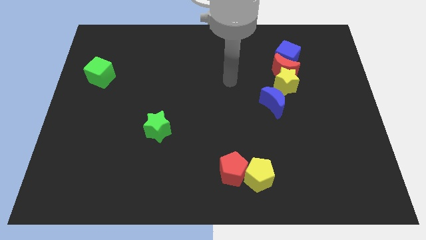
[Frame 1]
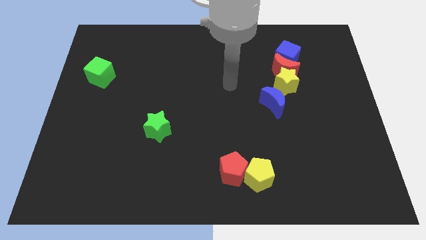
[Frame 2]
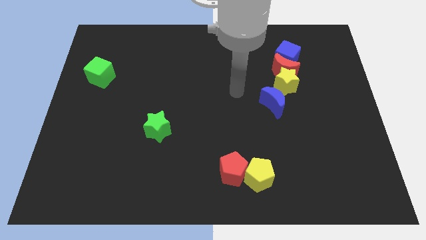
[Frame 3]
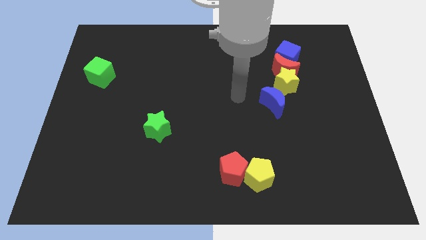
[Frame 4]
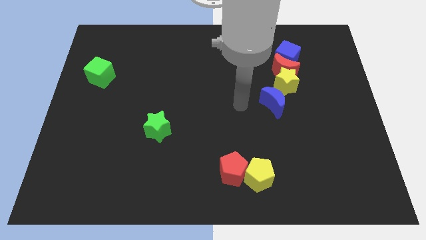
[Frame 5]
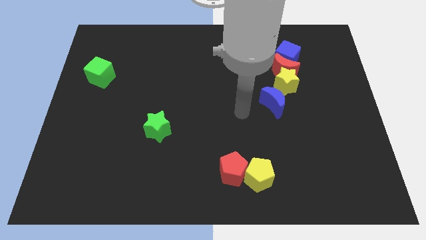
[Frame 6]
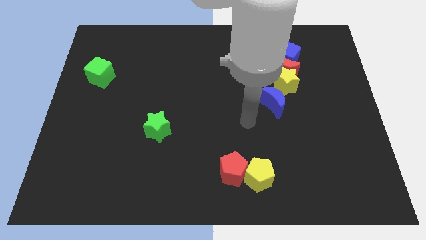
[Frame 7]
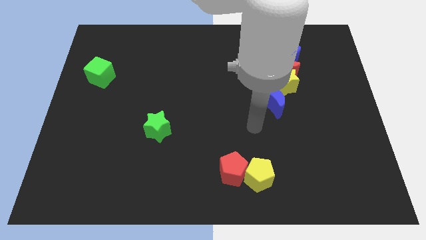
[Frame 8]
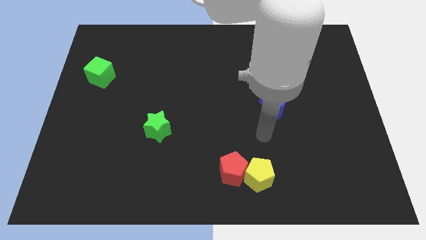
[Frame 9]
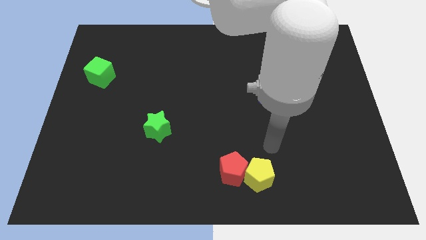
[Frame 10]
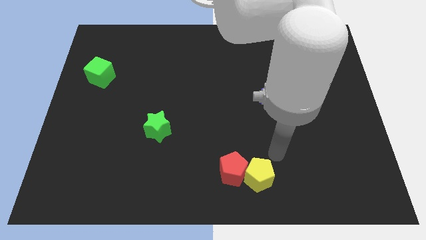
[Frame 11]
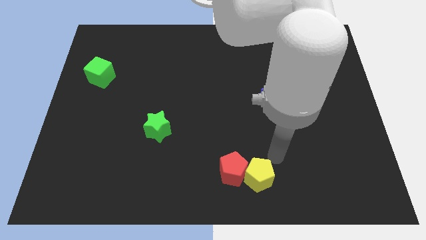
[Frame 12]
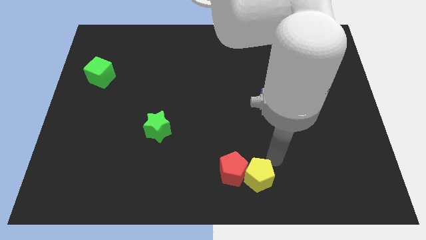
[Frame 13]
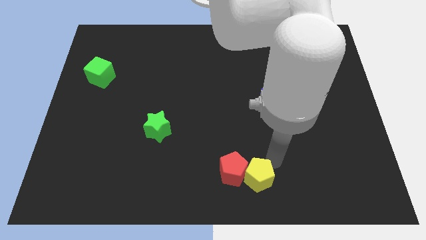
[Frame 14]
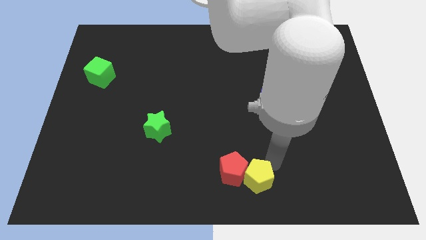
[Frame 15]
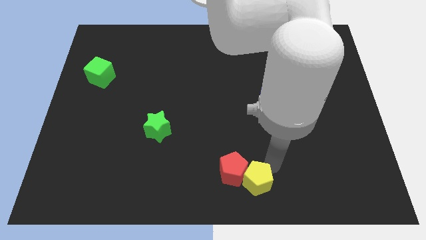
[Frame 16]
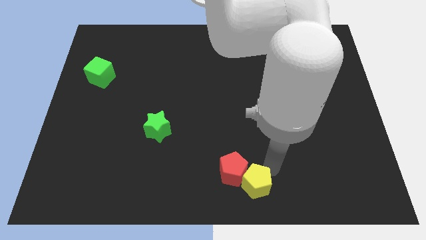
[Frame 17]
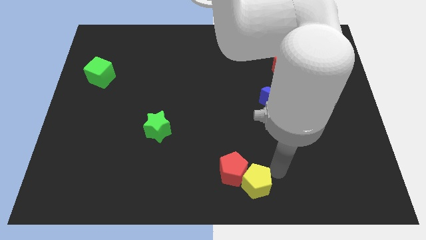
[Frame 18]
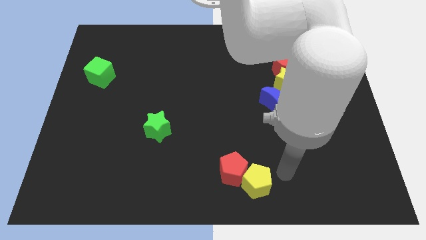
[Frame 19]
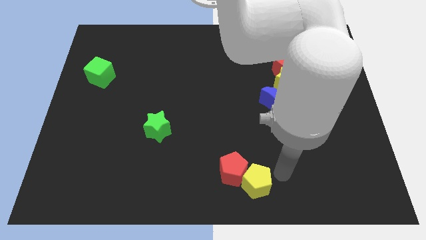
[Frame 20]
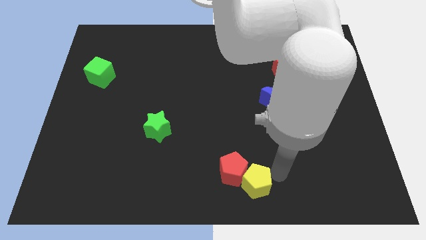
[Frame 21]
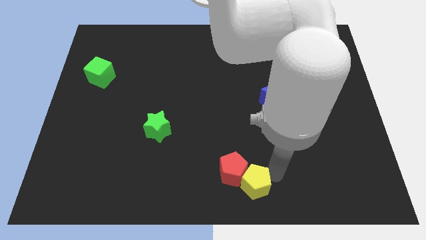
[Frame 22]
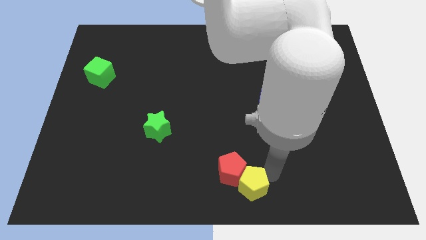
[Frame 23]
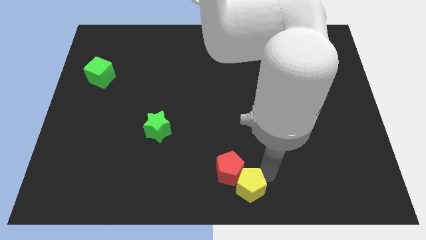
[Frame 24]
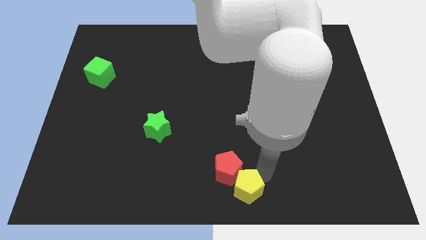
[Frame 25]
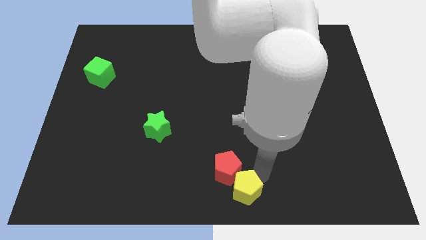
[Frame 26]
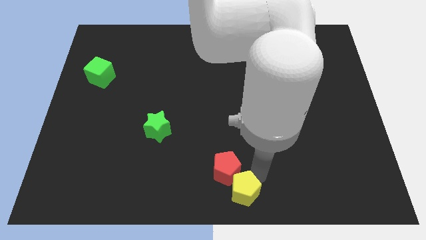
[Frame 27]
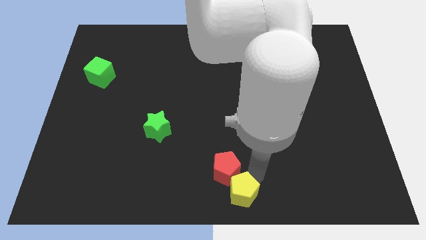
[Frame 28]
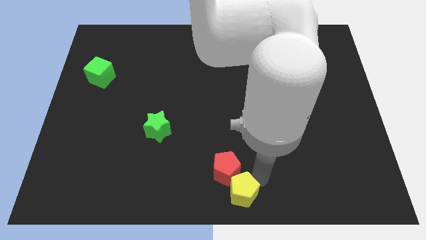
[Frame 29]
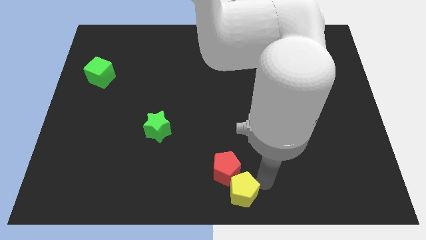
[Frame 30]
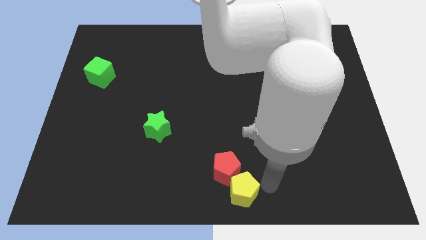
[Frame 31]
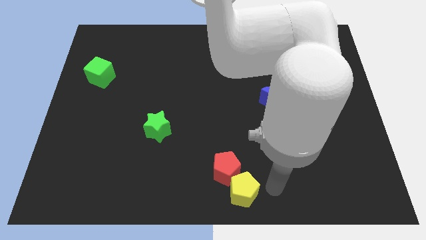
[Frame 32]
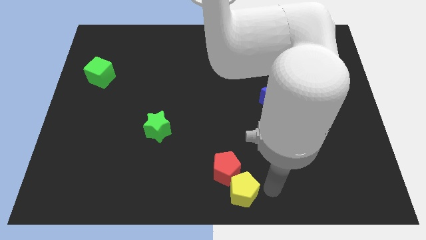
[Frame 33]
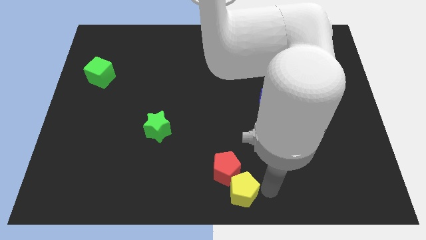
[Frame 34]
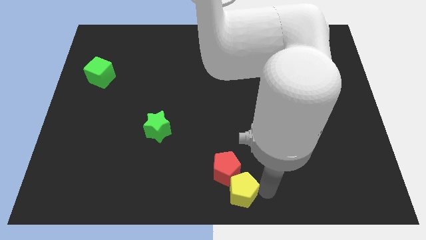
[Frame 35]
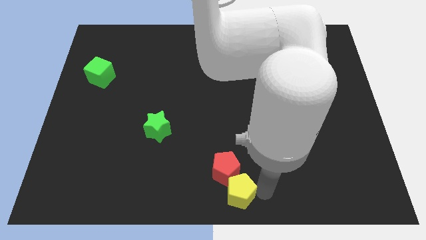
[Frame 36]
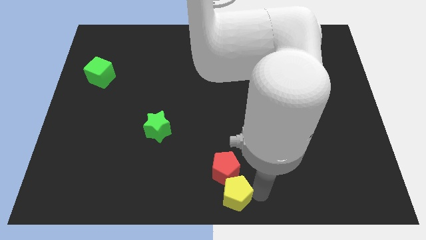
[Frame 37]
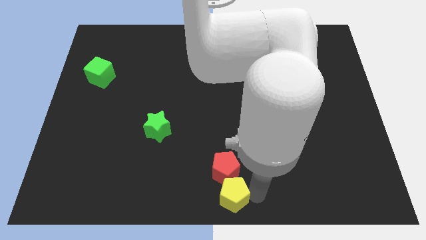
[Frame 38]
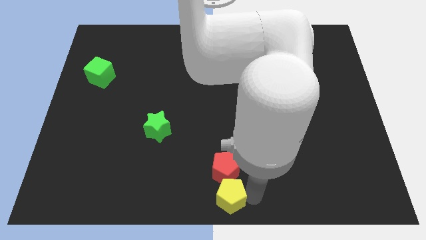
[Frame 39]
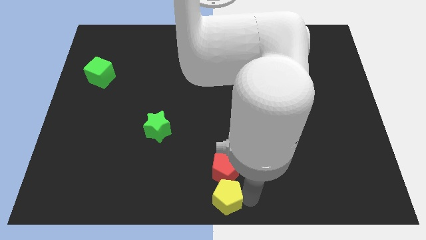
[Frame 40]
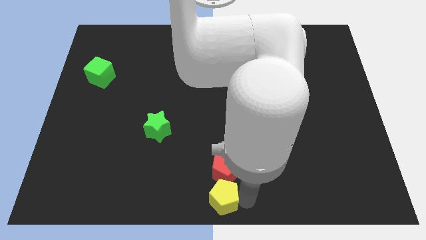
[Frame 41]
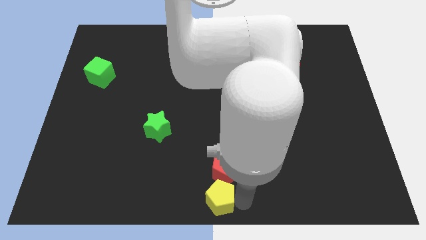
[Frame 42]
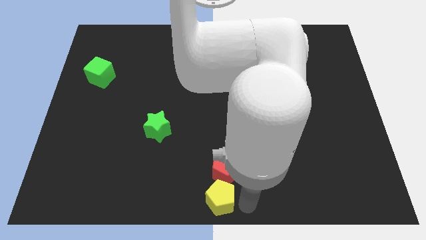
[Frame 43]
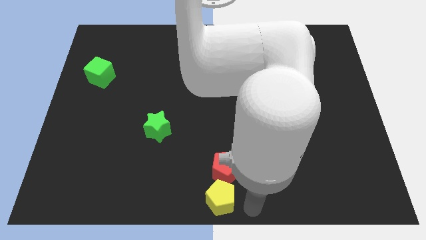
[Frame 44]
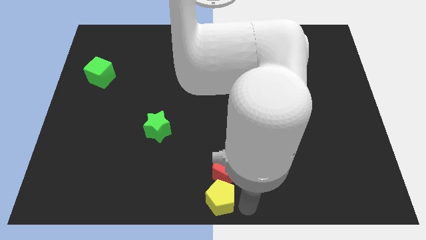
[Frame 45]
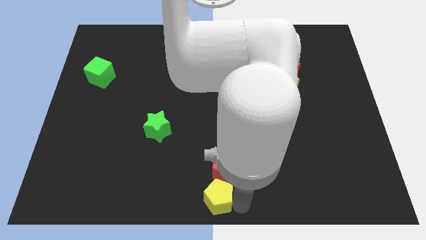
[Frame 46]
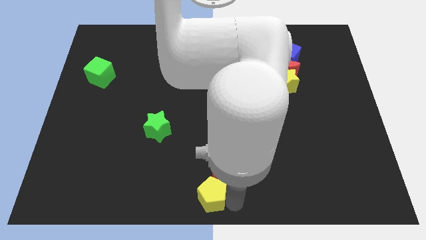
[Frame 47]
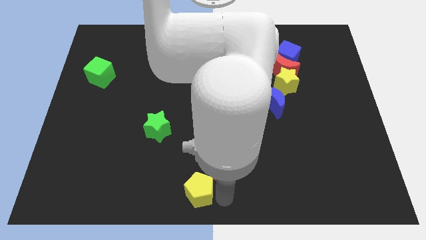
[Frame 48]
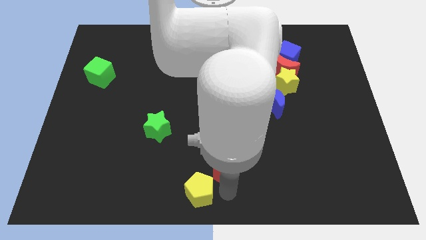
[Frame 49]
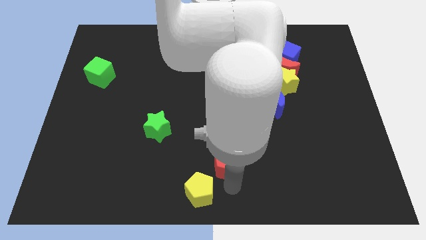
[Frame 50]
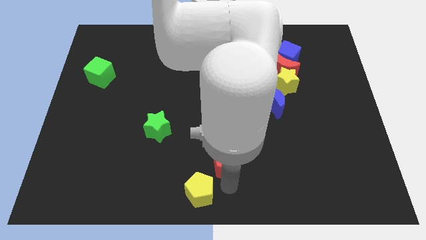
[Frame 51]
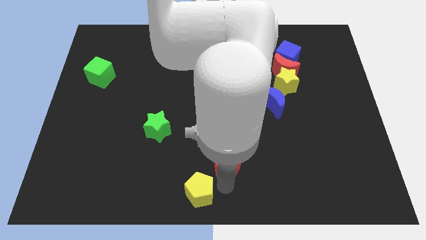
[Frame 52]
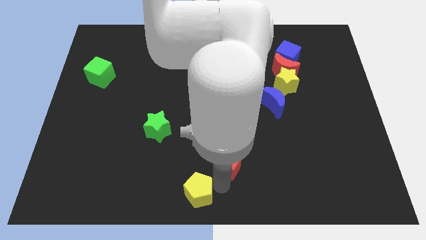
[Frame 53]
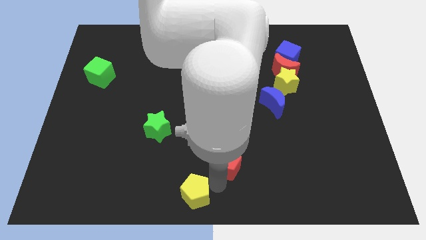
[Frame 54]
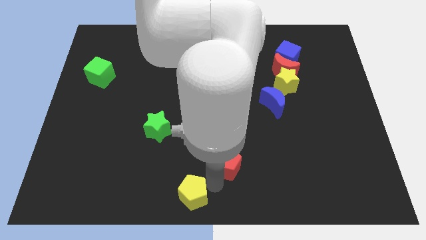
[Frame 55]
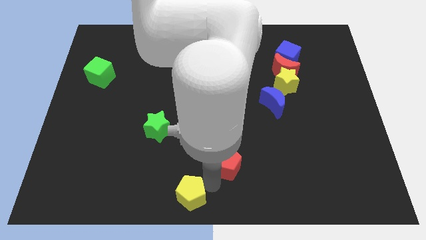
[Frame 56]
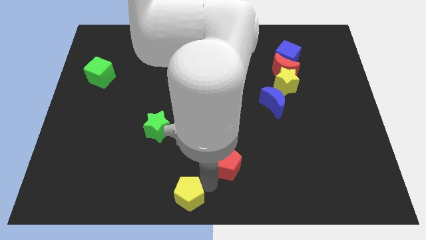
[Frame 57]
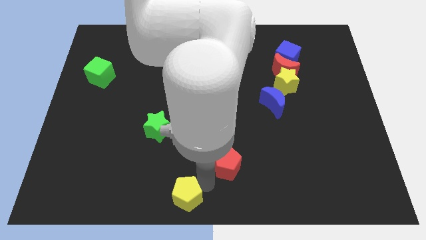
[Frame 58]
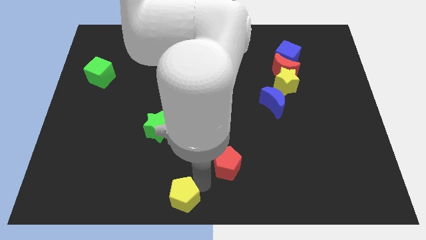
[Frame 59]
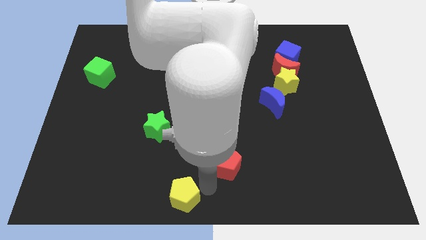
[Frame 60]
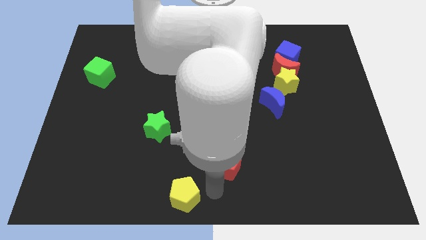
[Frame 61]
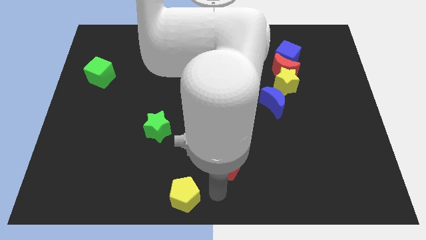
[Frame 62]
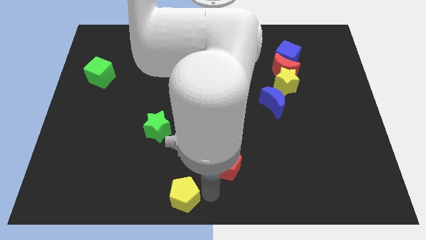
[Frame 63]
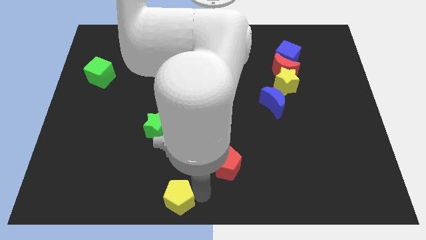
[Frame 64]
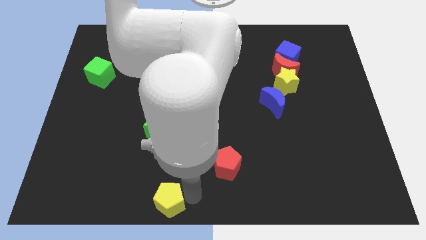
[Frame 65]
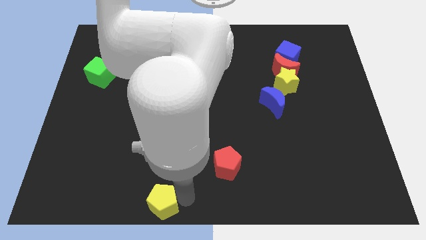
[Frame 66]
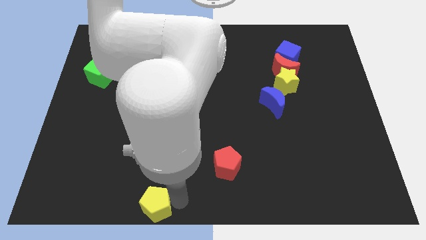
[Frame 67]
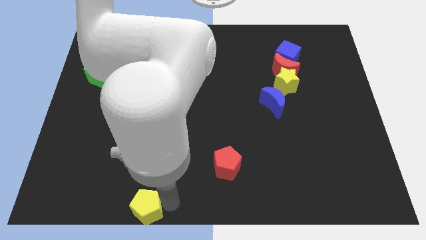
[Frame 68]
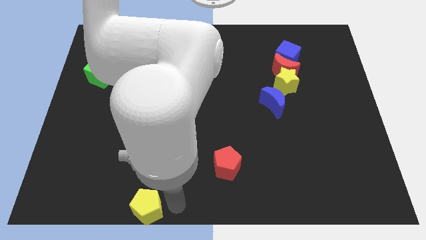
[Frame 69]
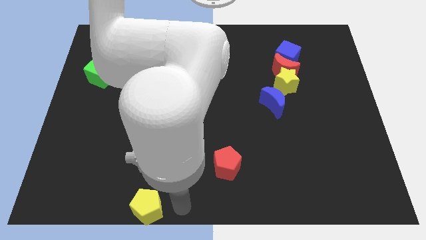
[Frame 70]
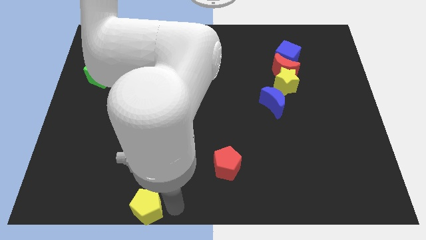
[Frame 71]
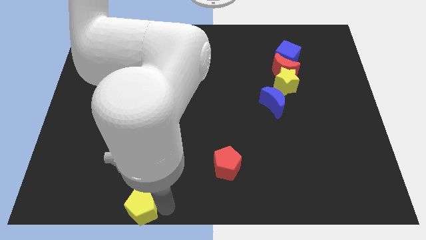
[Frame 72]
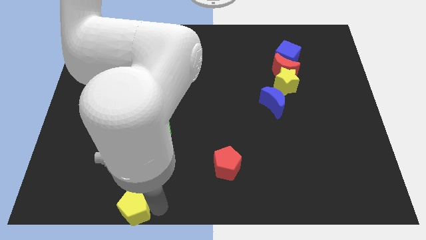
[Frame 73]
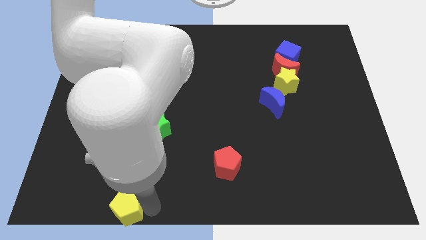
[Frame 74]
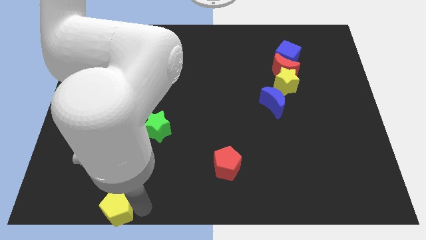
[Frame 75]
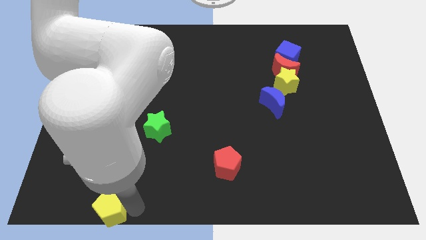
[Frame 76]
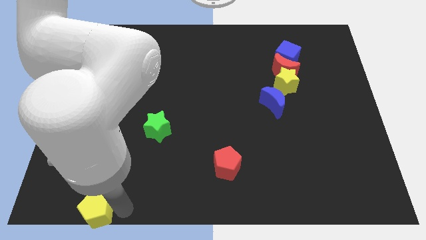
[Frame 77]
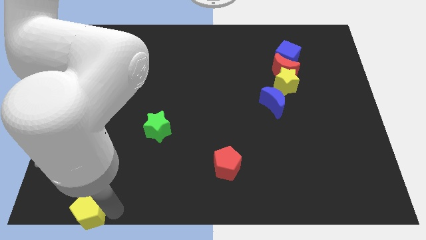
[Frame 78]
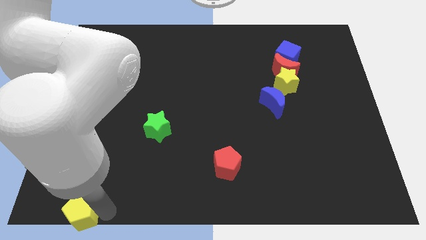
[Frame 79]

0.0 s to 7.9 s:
push the yellow pentagon to the bottom left of the board
